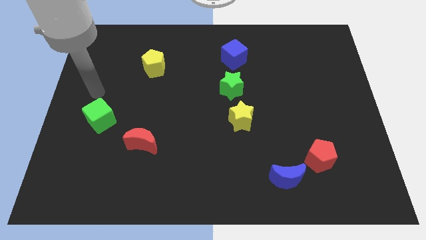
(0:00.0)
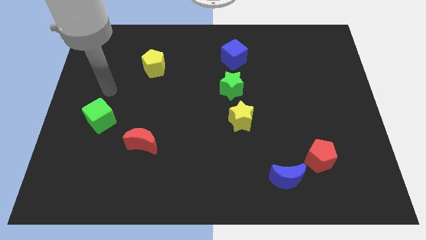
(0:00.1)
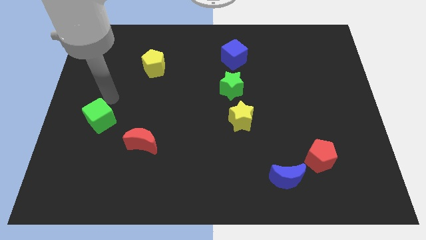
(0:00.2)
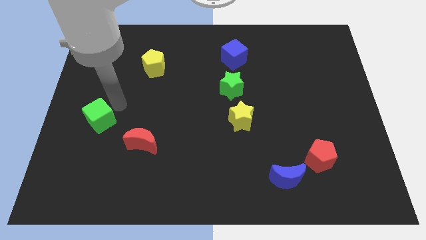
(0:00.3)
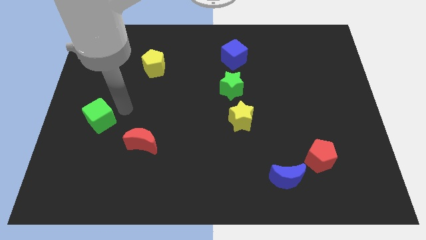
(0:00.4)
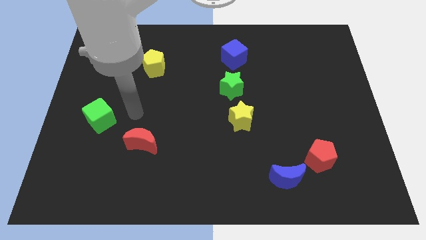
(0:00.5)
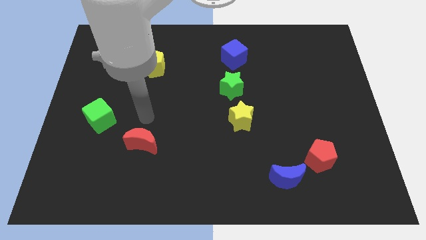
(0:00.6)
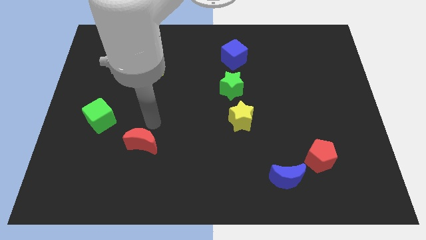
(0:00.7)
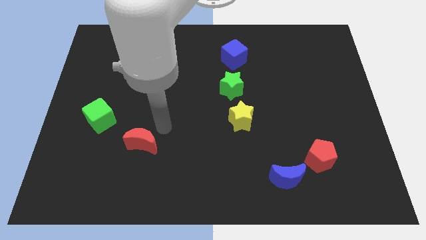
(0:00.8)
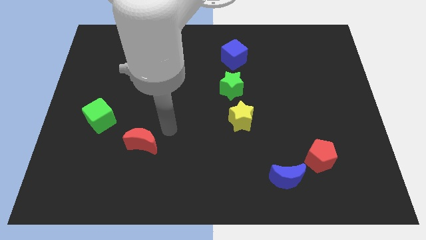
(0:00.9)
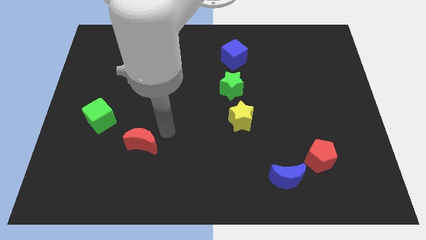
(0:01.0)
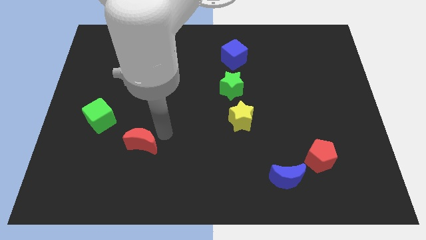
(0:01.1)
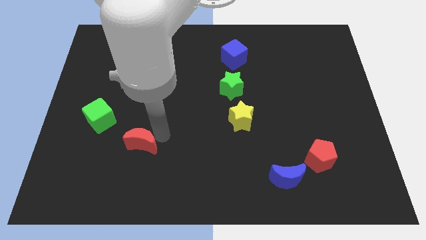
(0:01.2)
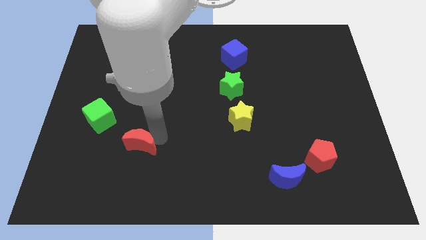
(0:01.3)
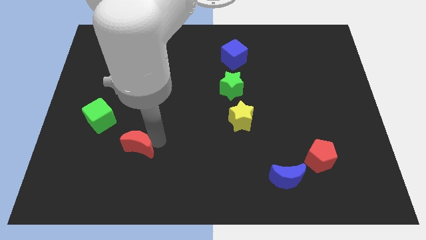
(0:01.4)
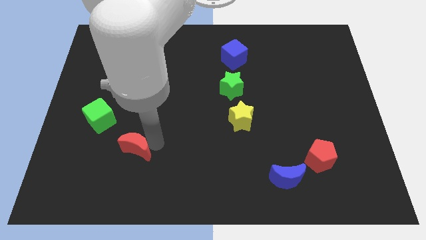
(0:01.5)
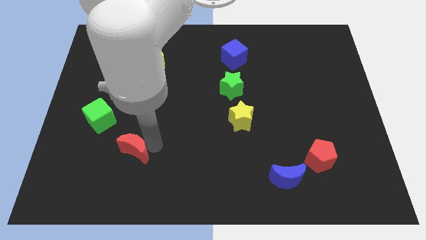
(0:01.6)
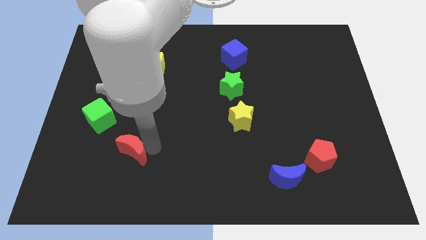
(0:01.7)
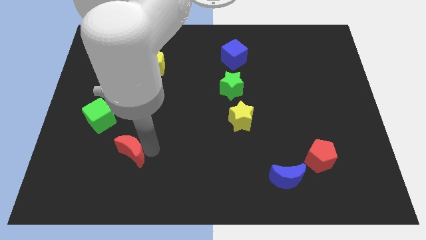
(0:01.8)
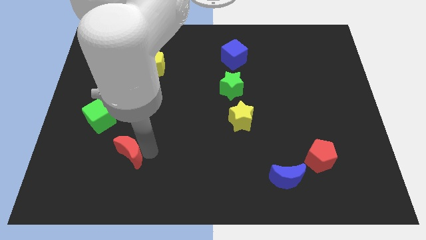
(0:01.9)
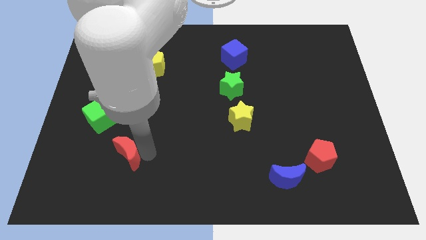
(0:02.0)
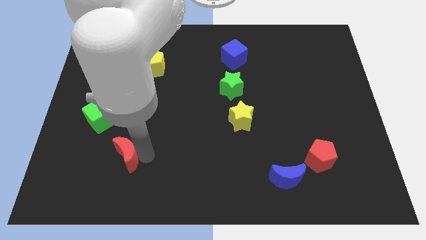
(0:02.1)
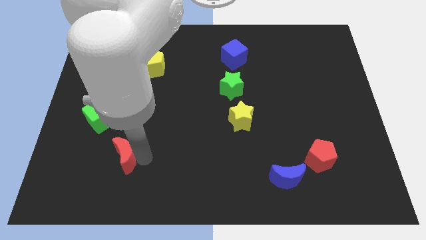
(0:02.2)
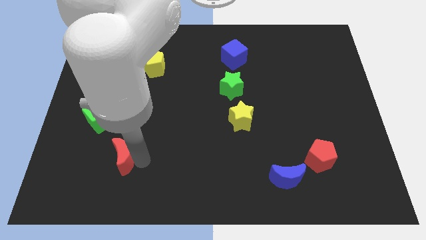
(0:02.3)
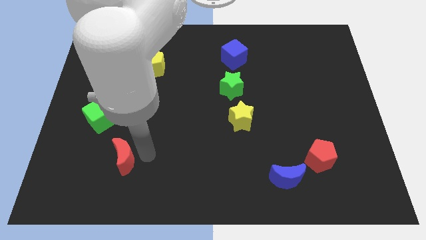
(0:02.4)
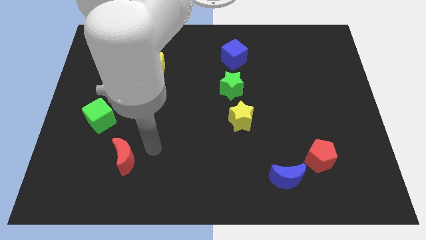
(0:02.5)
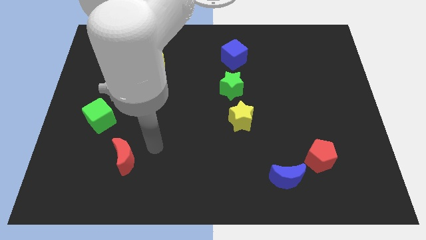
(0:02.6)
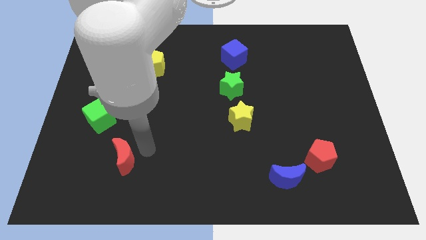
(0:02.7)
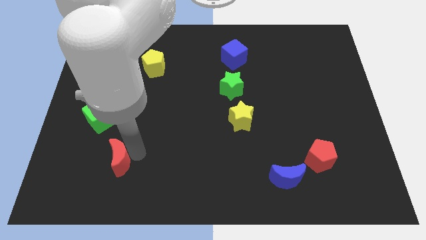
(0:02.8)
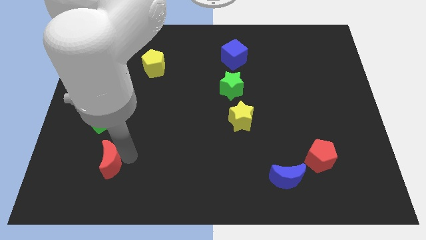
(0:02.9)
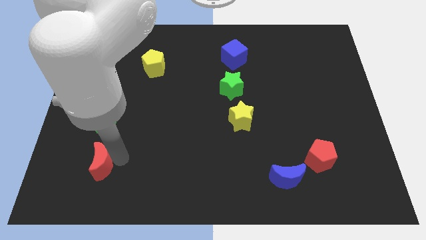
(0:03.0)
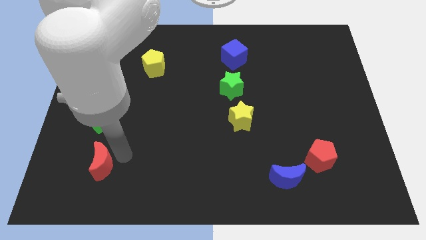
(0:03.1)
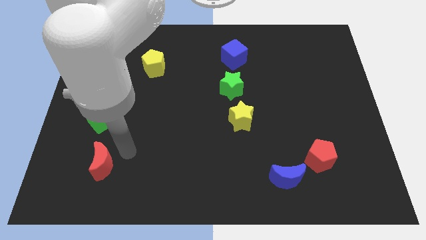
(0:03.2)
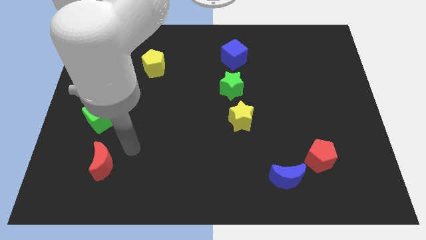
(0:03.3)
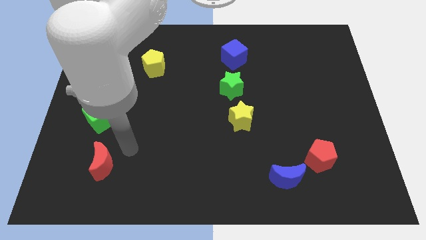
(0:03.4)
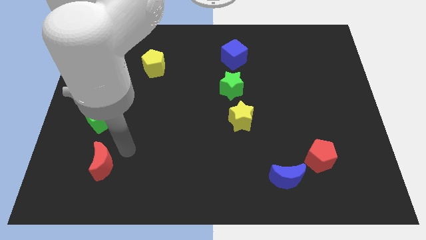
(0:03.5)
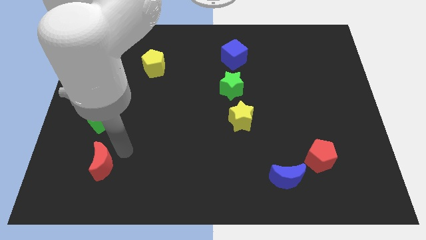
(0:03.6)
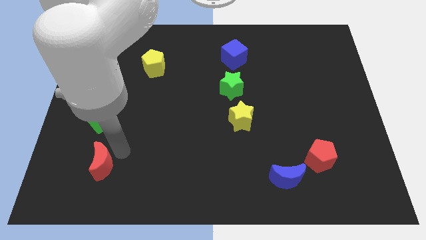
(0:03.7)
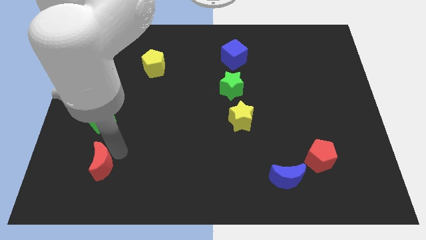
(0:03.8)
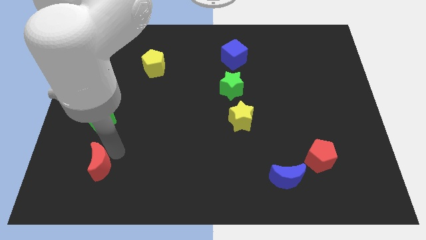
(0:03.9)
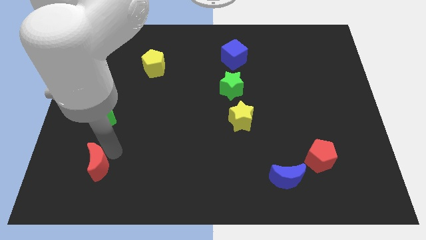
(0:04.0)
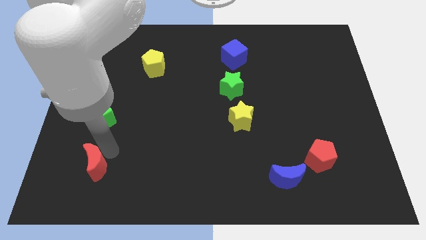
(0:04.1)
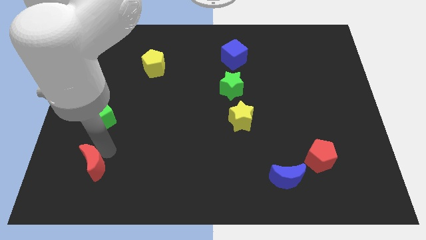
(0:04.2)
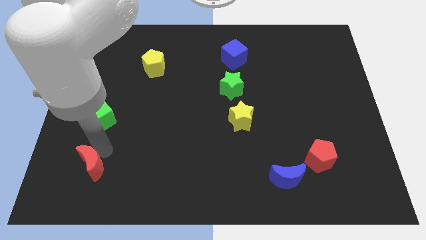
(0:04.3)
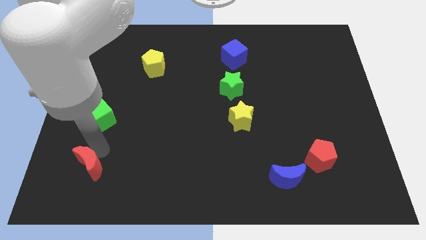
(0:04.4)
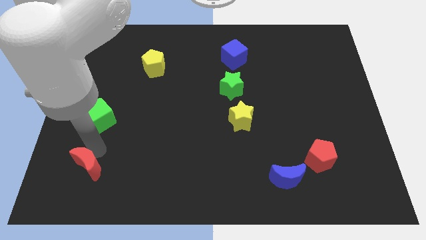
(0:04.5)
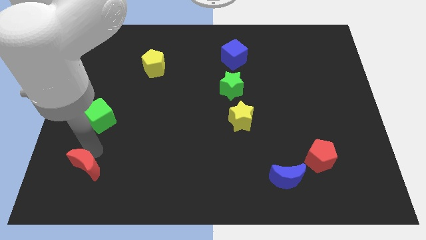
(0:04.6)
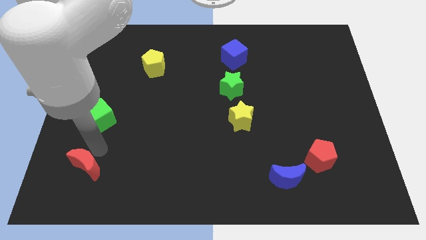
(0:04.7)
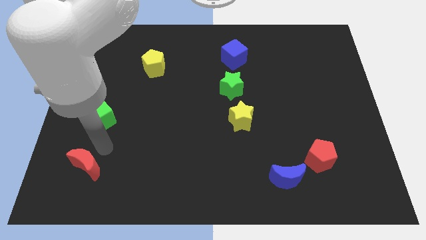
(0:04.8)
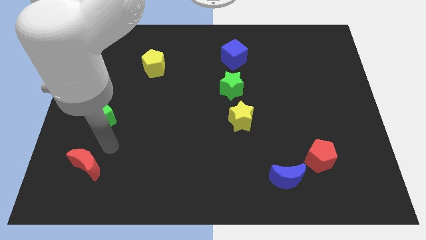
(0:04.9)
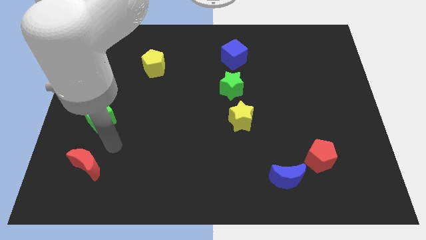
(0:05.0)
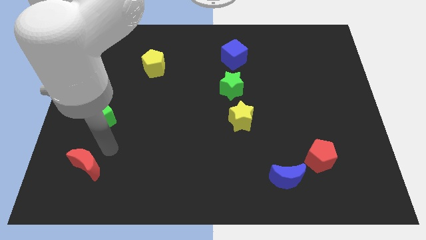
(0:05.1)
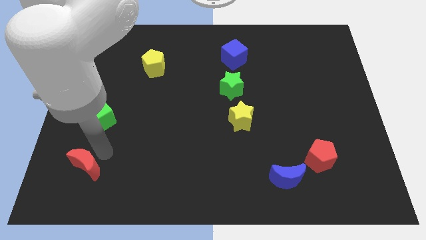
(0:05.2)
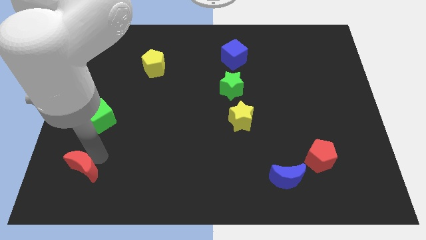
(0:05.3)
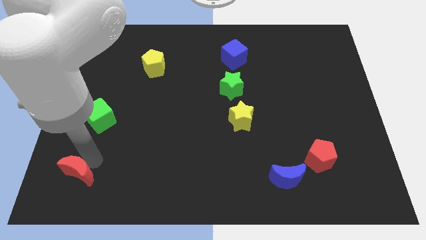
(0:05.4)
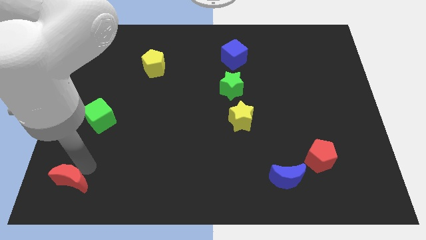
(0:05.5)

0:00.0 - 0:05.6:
move the red moon to the bottom left

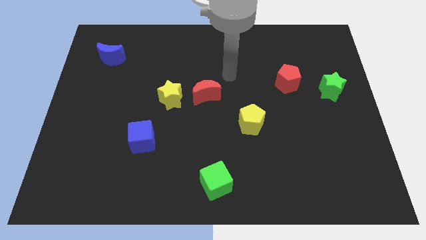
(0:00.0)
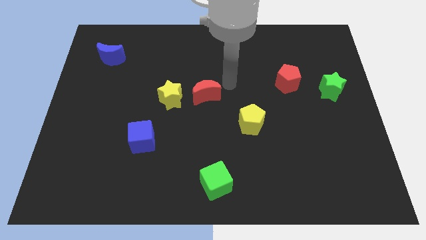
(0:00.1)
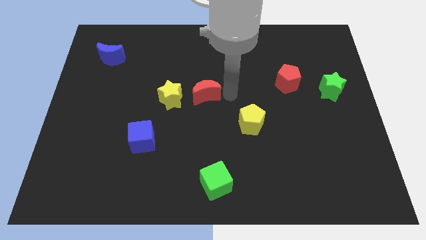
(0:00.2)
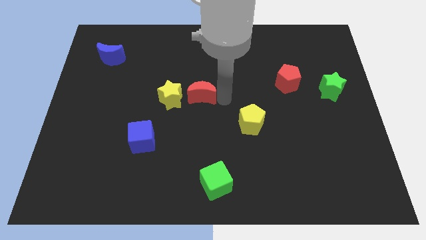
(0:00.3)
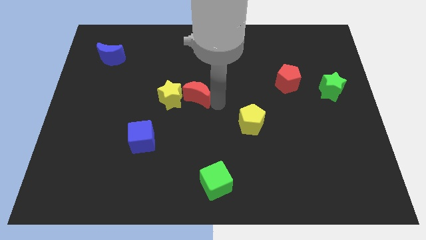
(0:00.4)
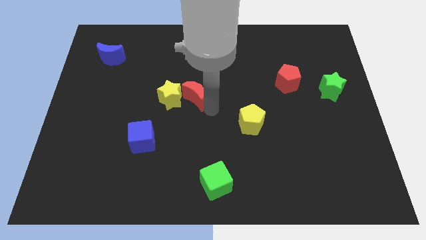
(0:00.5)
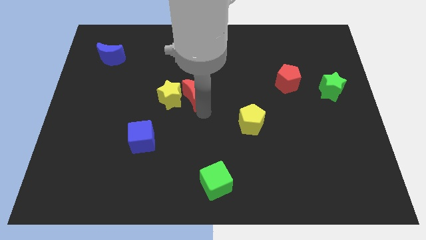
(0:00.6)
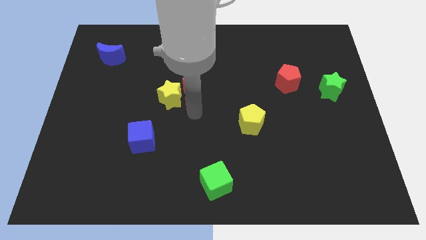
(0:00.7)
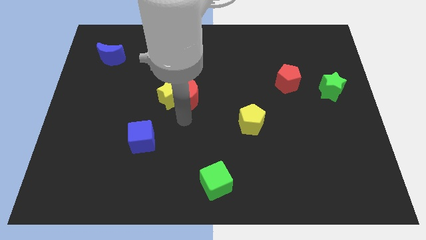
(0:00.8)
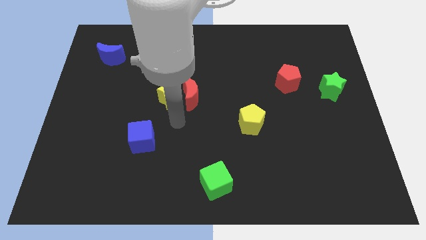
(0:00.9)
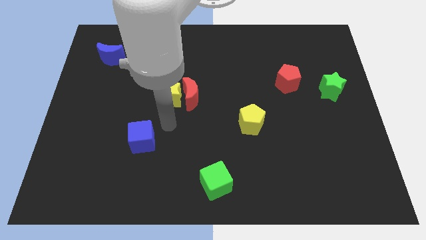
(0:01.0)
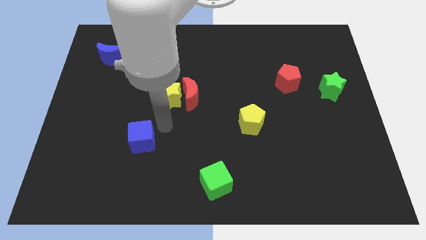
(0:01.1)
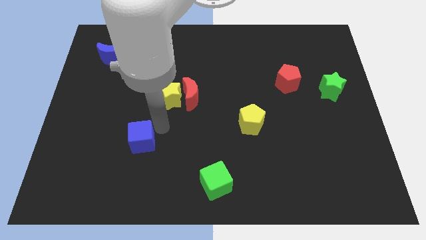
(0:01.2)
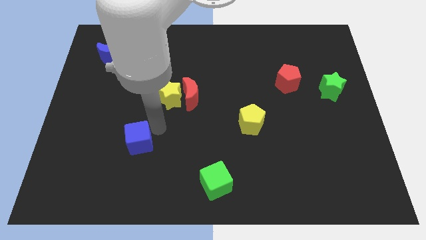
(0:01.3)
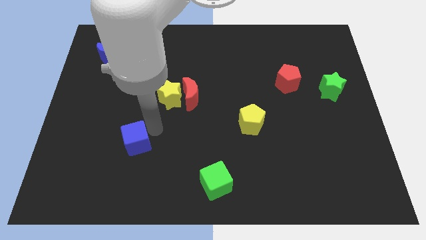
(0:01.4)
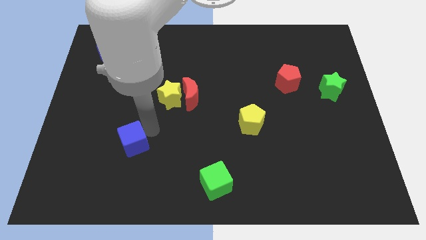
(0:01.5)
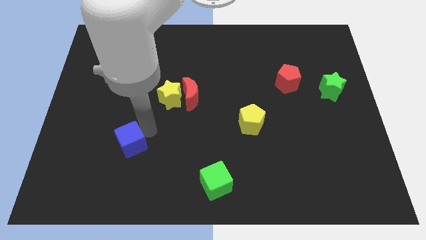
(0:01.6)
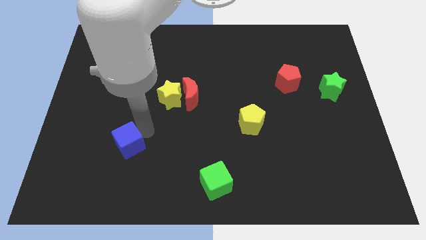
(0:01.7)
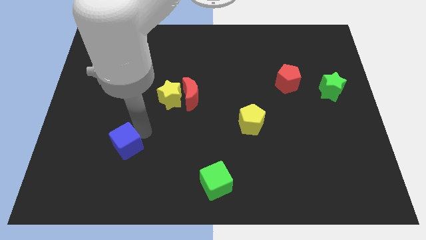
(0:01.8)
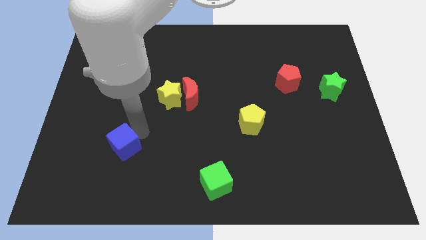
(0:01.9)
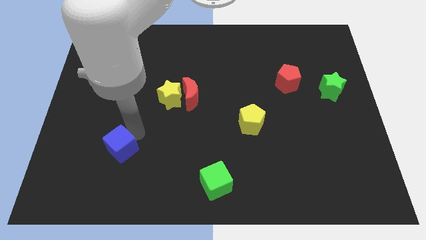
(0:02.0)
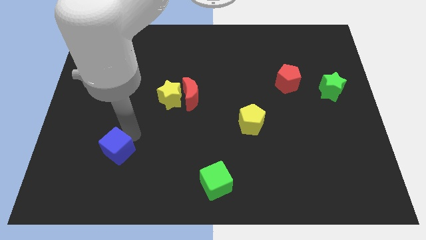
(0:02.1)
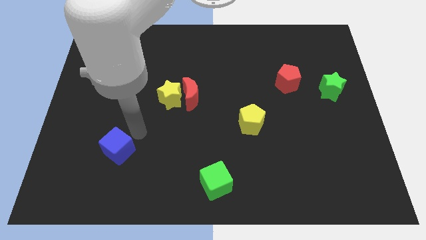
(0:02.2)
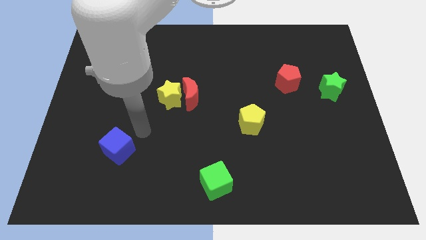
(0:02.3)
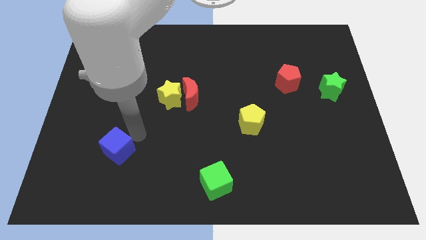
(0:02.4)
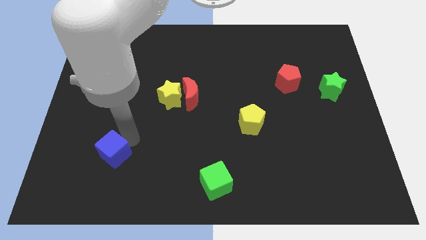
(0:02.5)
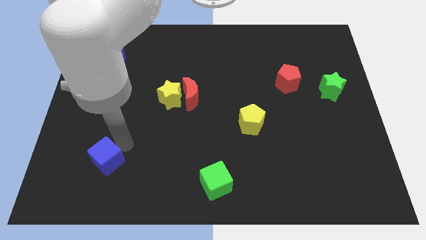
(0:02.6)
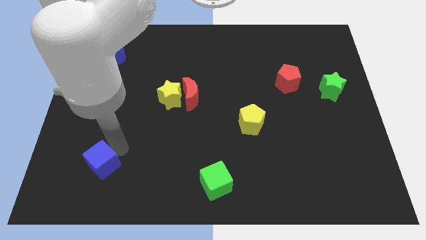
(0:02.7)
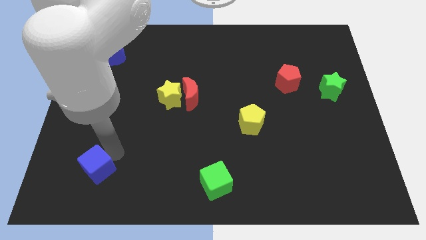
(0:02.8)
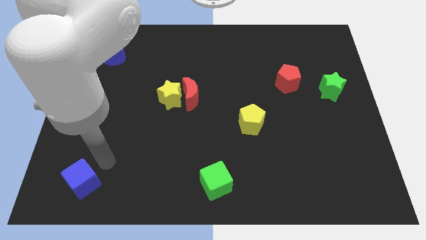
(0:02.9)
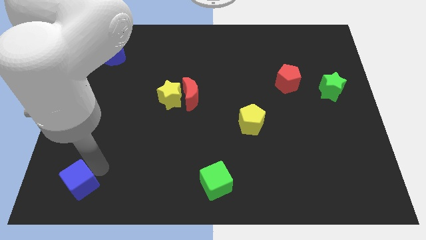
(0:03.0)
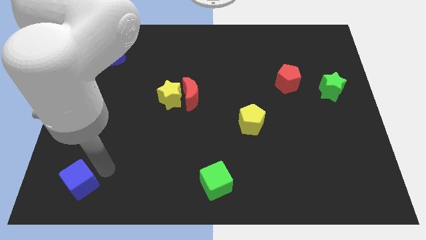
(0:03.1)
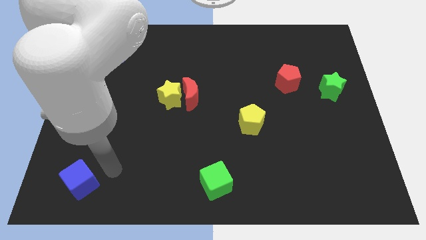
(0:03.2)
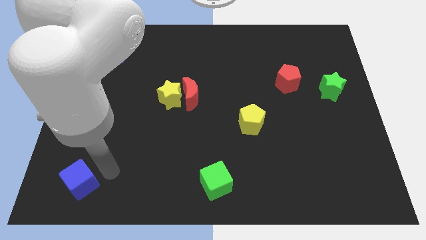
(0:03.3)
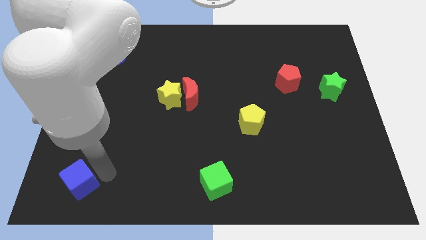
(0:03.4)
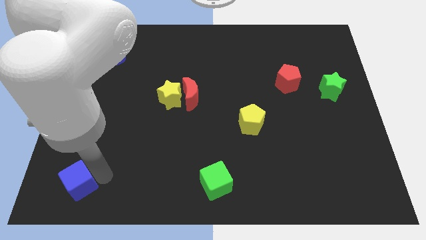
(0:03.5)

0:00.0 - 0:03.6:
slide the blue cube to the bottom left of the board
